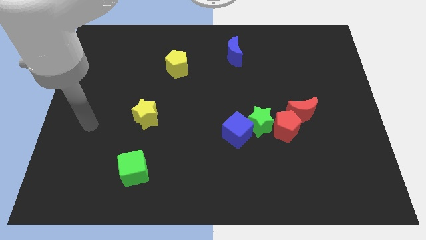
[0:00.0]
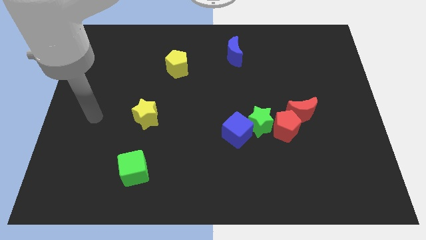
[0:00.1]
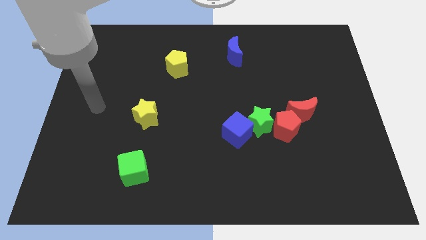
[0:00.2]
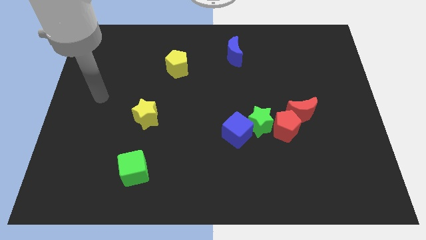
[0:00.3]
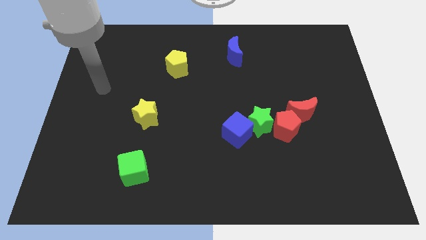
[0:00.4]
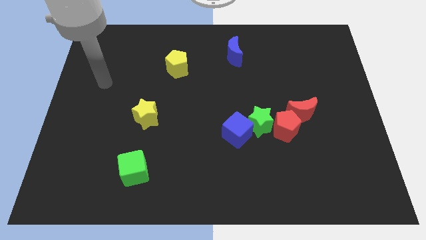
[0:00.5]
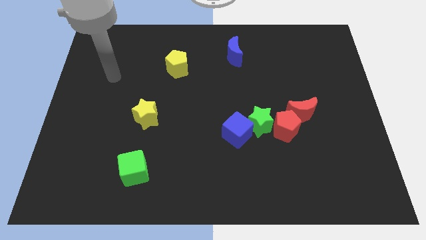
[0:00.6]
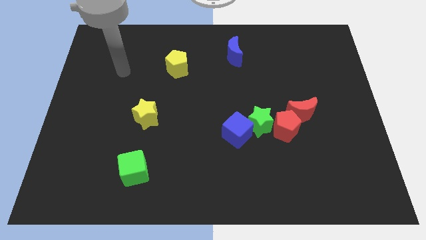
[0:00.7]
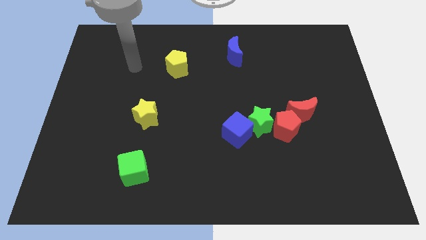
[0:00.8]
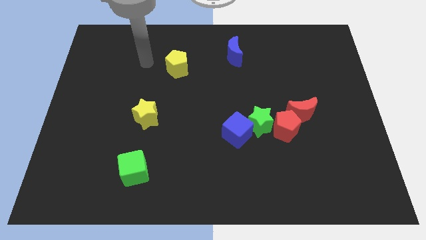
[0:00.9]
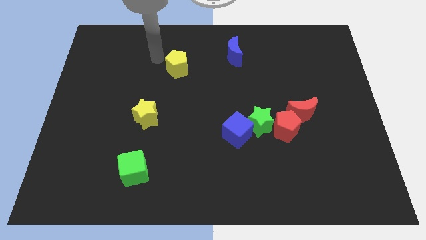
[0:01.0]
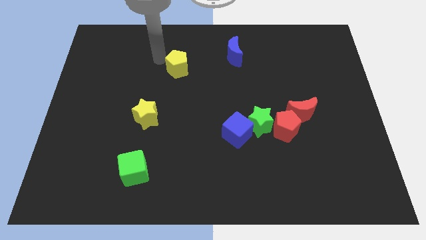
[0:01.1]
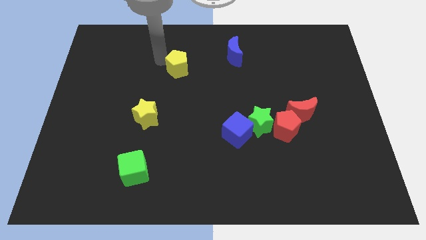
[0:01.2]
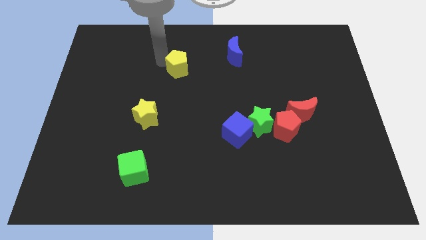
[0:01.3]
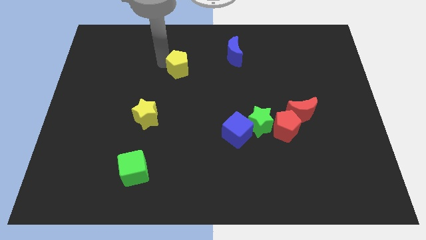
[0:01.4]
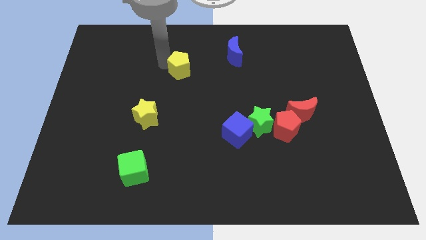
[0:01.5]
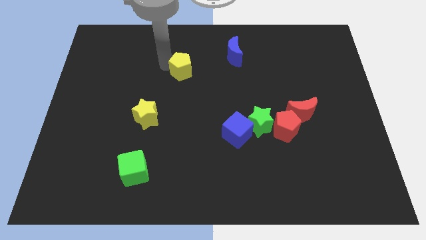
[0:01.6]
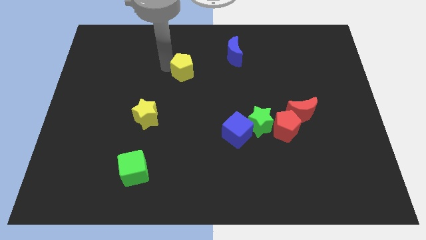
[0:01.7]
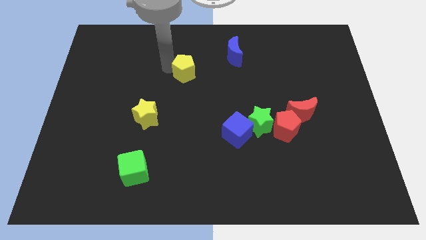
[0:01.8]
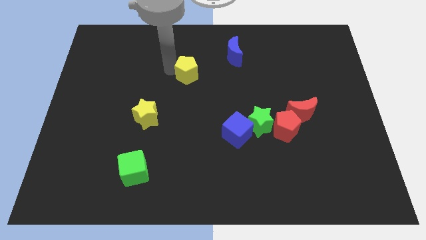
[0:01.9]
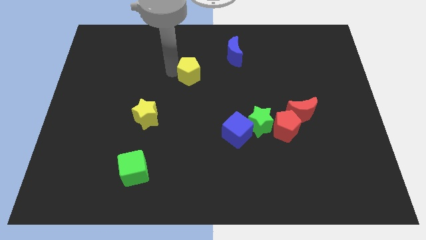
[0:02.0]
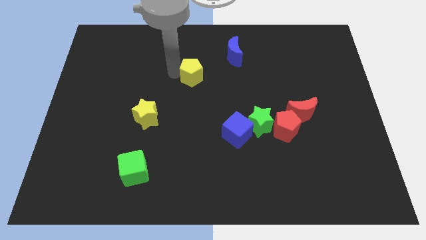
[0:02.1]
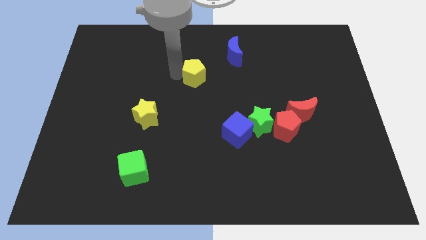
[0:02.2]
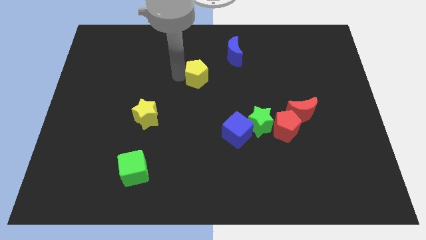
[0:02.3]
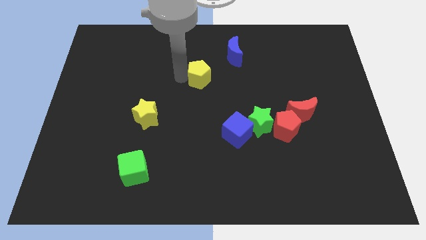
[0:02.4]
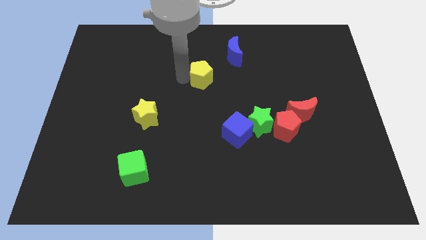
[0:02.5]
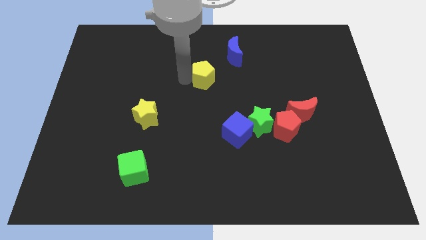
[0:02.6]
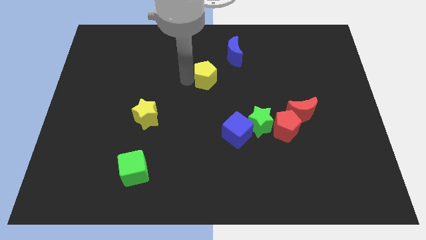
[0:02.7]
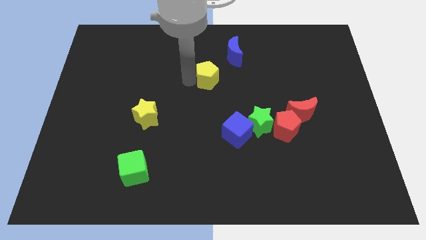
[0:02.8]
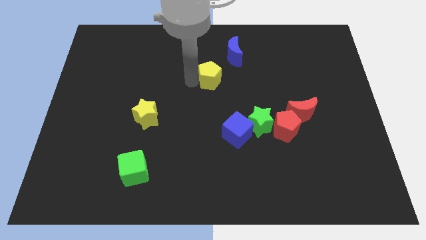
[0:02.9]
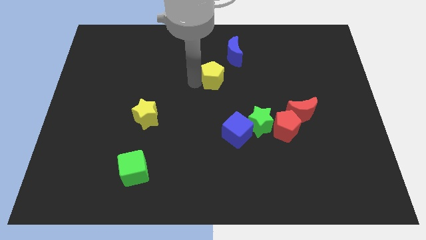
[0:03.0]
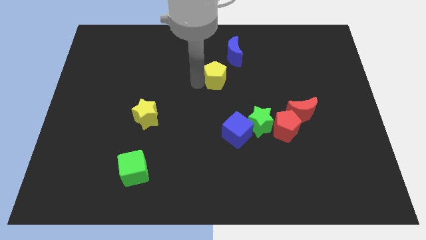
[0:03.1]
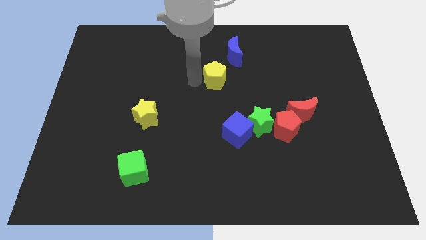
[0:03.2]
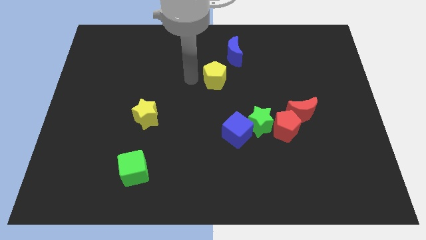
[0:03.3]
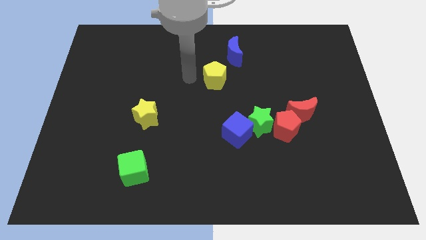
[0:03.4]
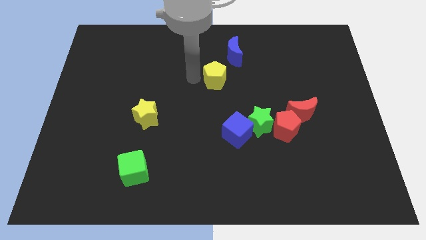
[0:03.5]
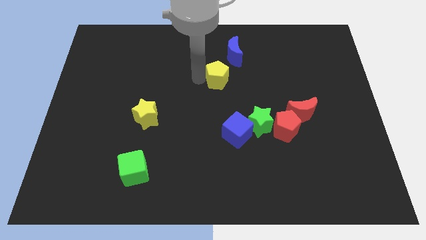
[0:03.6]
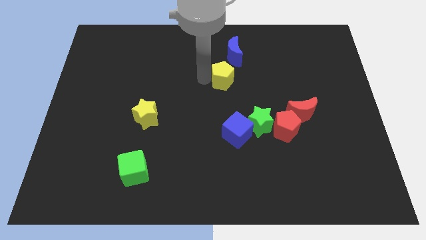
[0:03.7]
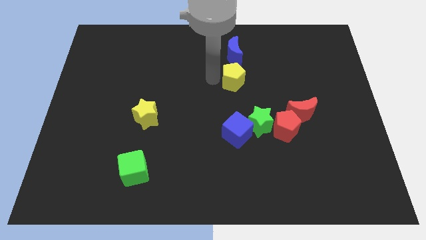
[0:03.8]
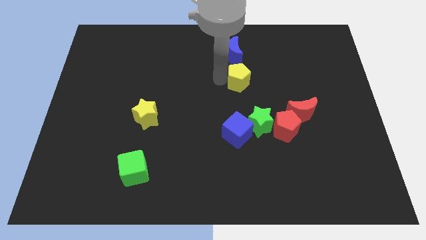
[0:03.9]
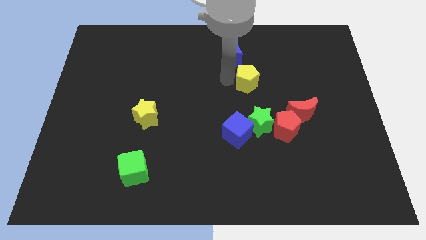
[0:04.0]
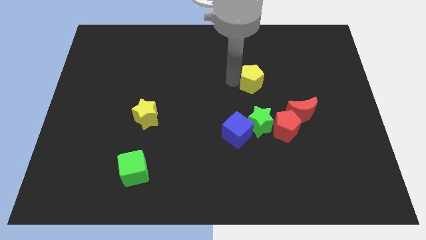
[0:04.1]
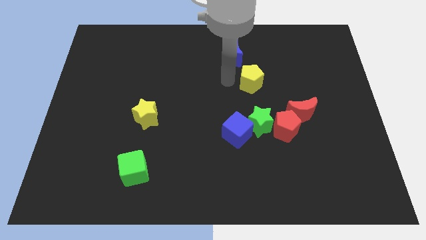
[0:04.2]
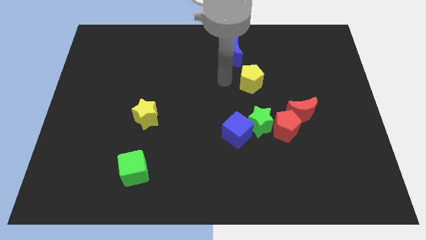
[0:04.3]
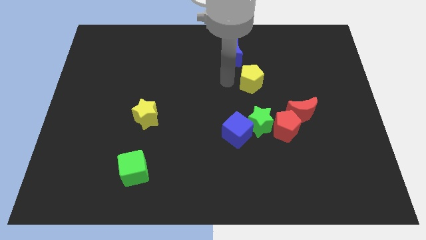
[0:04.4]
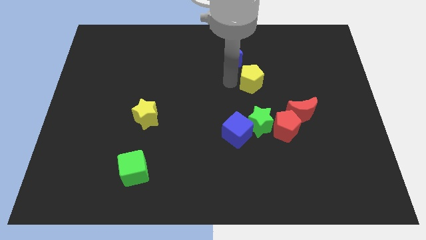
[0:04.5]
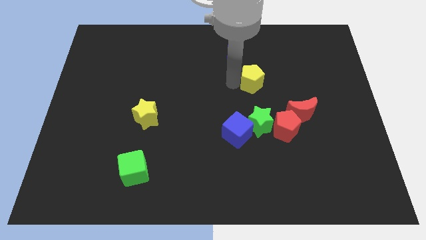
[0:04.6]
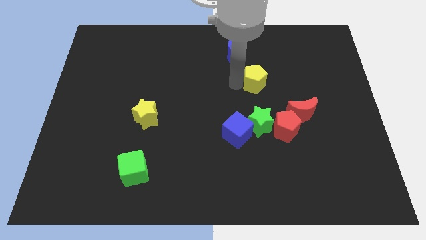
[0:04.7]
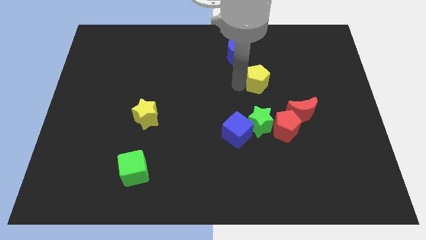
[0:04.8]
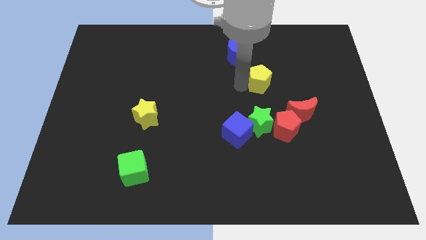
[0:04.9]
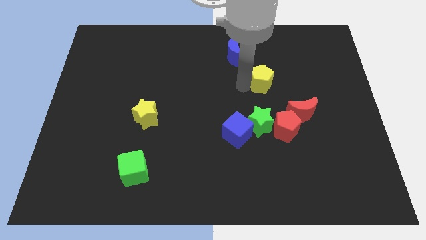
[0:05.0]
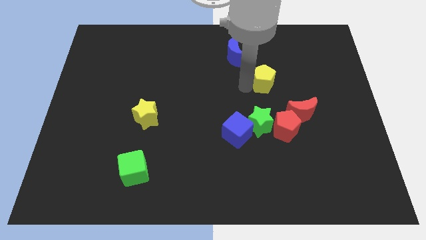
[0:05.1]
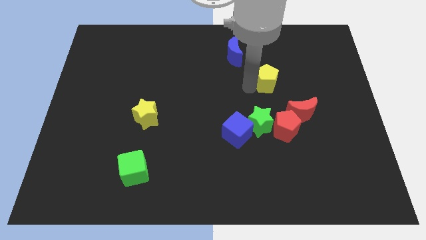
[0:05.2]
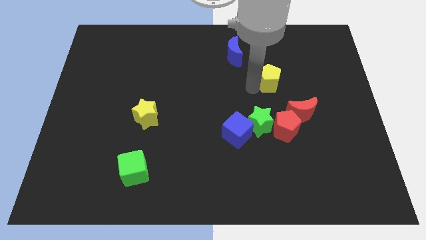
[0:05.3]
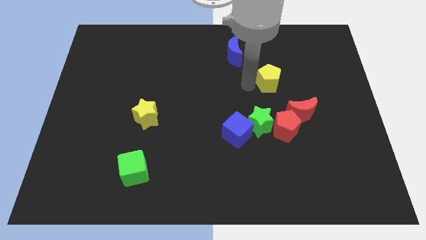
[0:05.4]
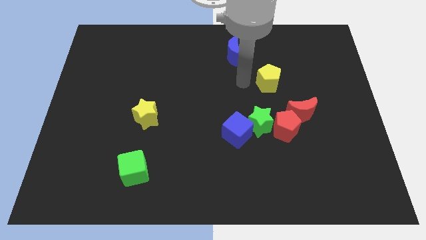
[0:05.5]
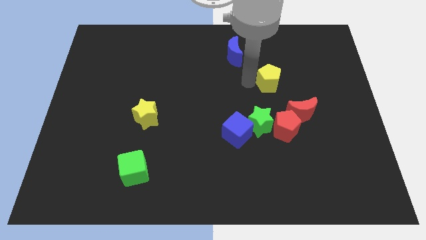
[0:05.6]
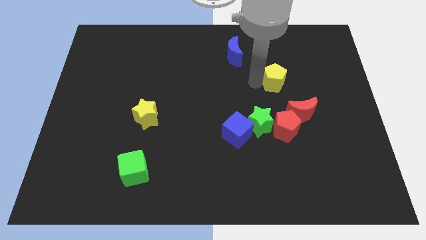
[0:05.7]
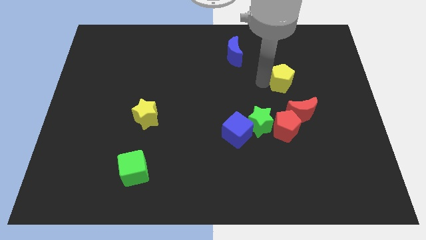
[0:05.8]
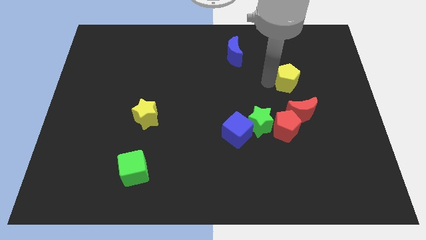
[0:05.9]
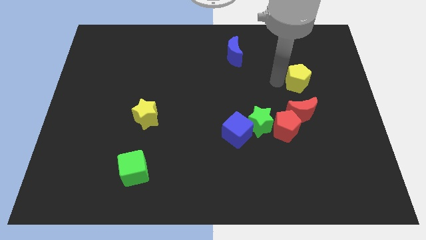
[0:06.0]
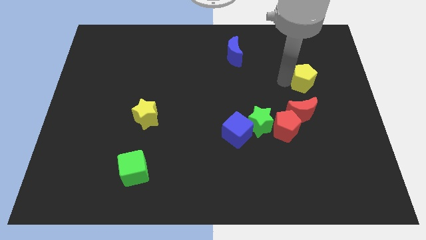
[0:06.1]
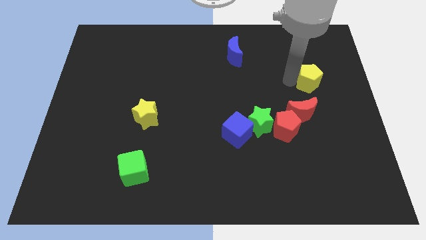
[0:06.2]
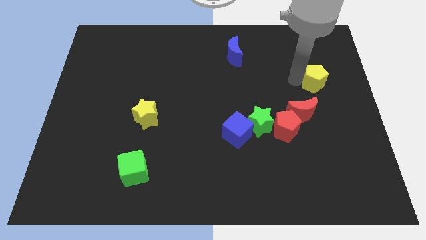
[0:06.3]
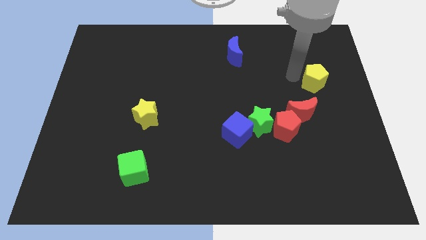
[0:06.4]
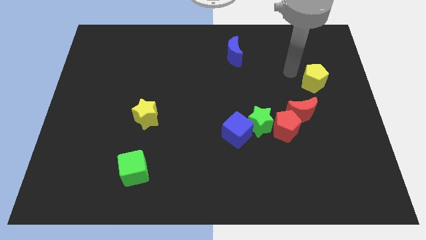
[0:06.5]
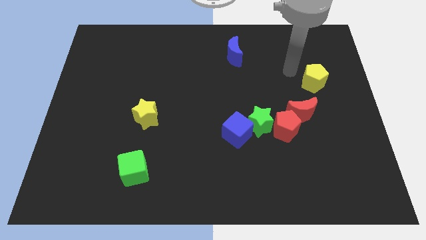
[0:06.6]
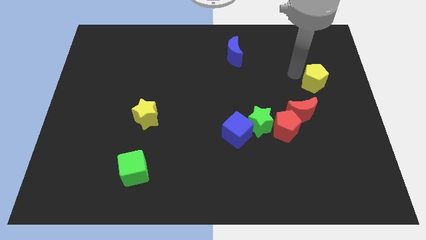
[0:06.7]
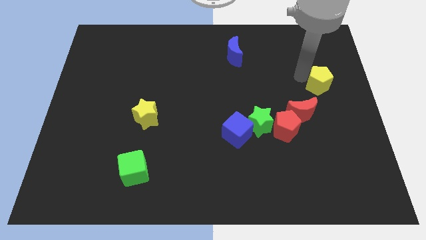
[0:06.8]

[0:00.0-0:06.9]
move the yellow pentagon to the center right

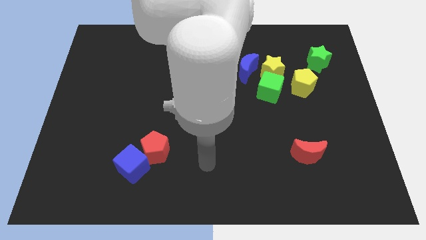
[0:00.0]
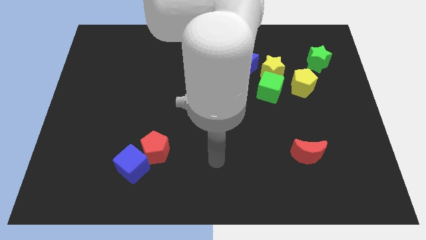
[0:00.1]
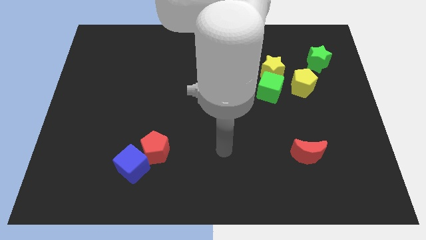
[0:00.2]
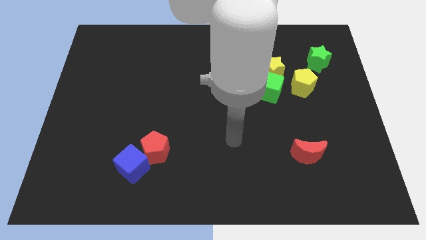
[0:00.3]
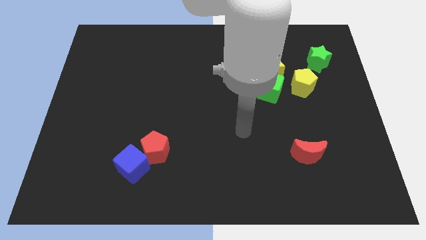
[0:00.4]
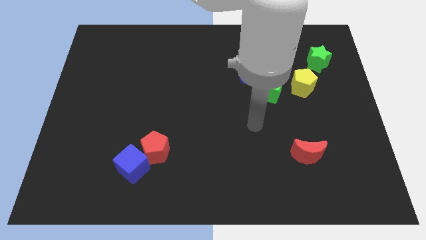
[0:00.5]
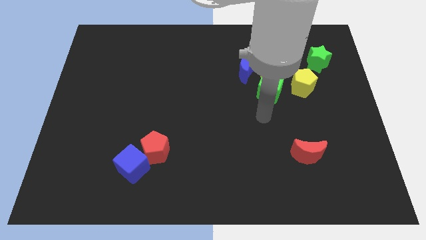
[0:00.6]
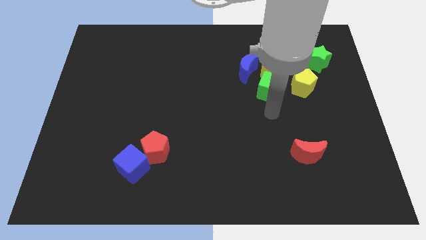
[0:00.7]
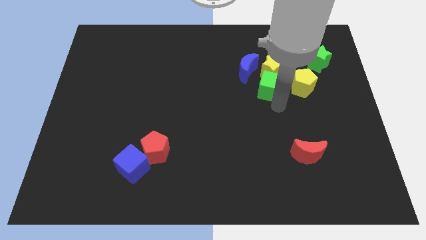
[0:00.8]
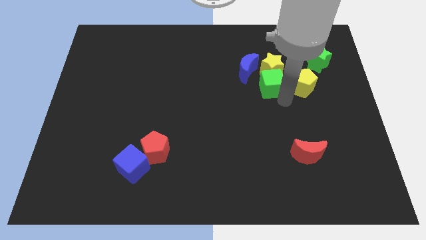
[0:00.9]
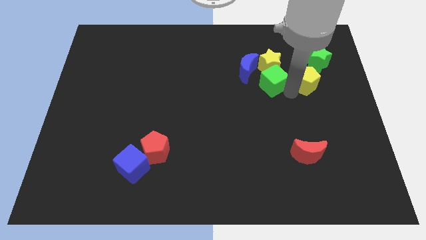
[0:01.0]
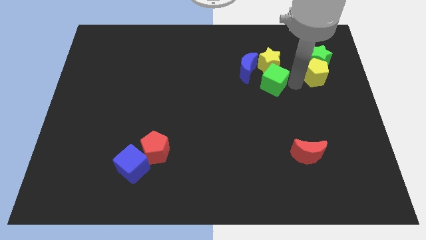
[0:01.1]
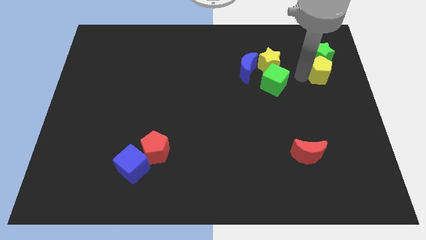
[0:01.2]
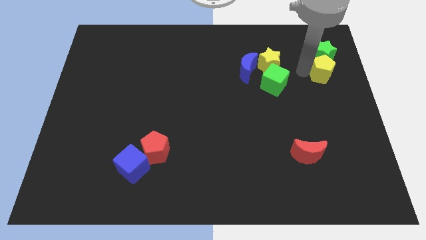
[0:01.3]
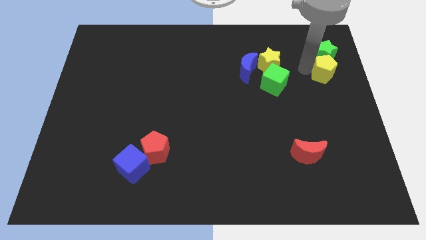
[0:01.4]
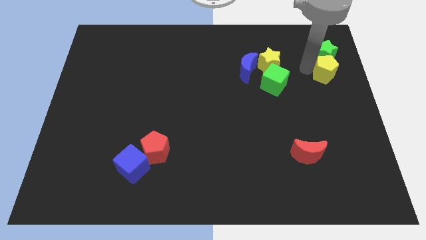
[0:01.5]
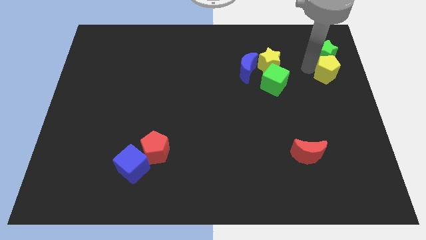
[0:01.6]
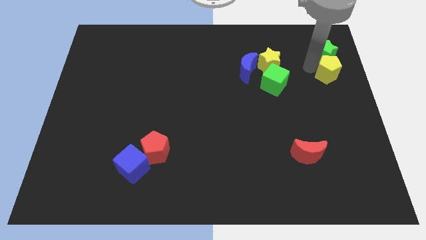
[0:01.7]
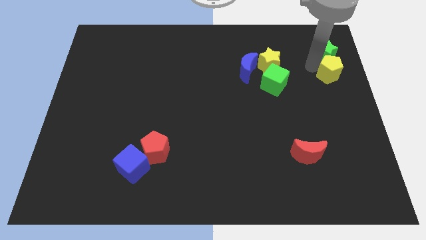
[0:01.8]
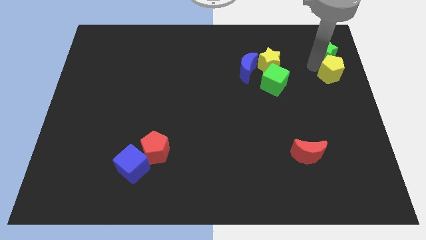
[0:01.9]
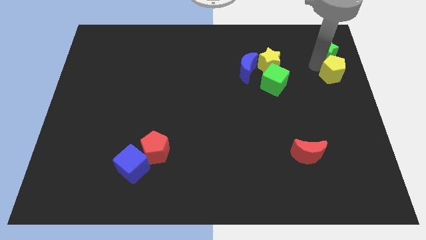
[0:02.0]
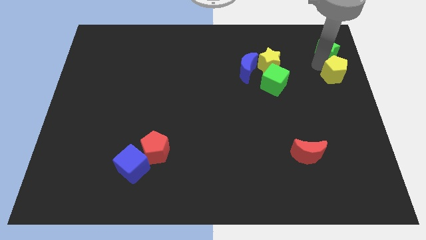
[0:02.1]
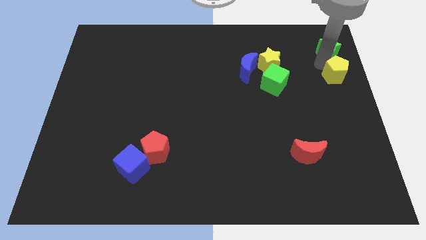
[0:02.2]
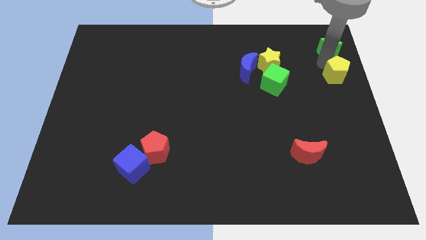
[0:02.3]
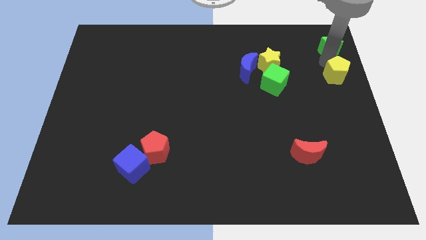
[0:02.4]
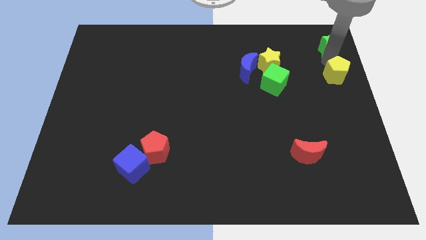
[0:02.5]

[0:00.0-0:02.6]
push the green star to the top right
